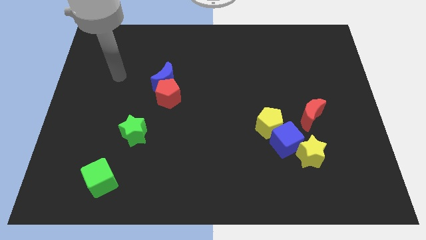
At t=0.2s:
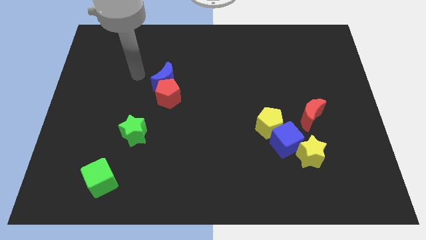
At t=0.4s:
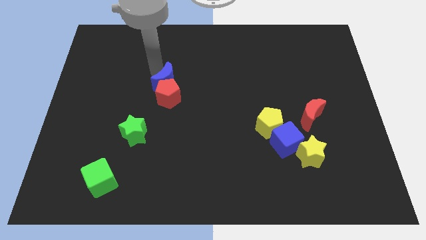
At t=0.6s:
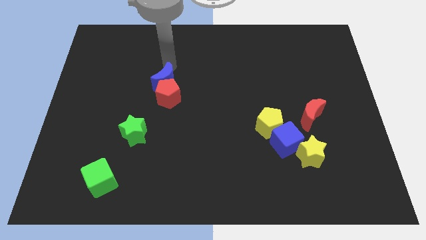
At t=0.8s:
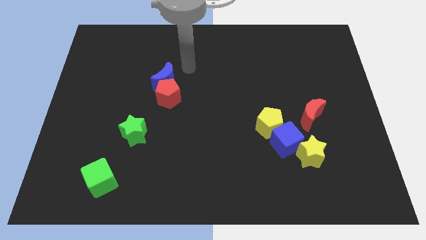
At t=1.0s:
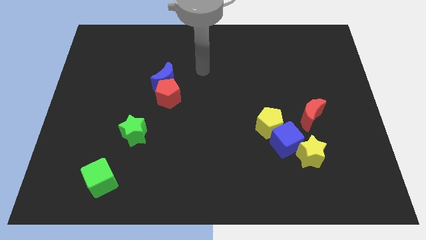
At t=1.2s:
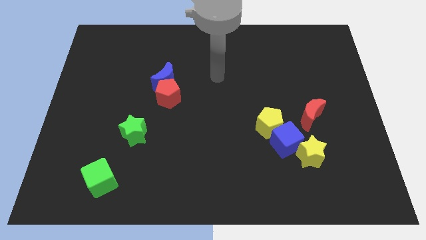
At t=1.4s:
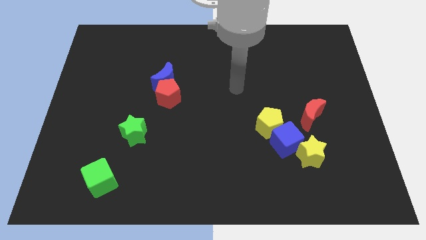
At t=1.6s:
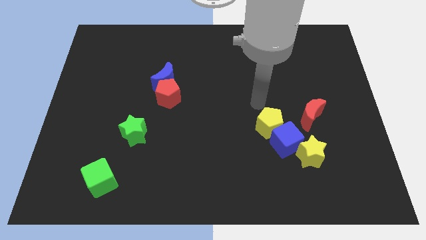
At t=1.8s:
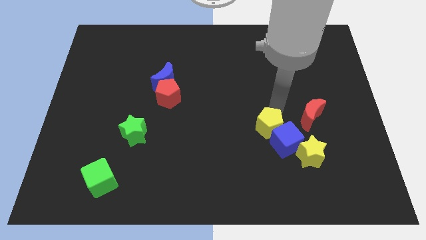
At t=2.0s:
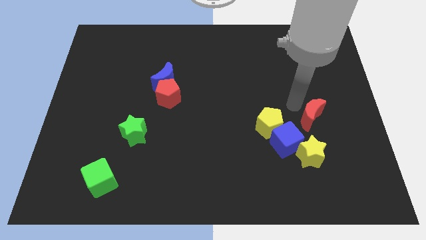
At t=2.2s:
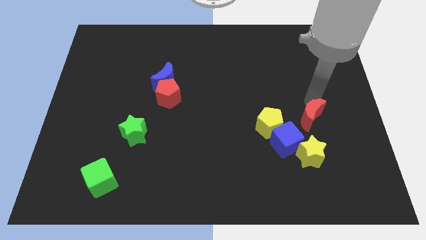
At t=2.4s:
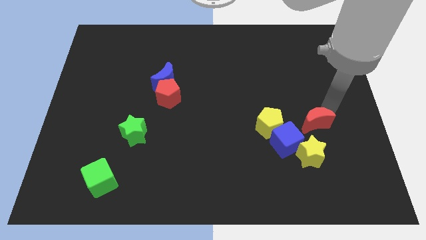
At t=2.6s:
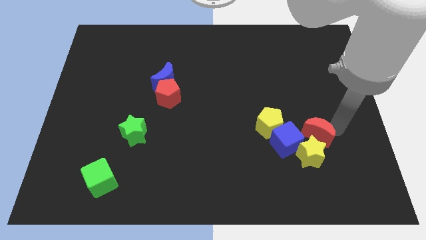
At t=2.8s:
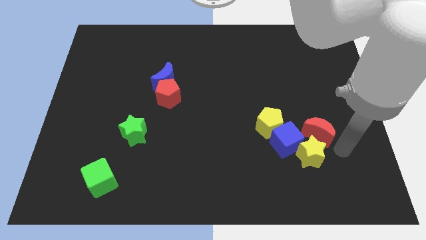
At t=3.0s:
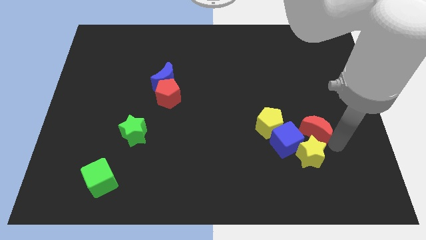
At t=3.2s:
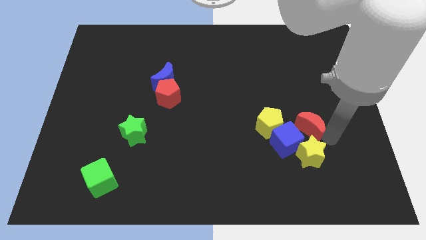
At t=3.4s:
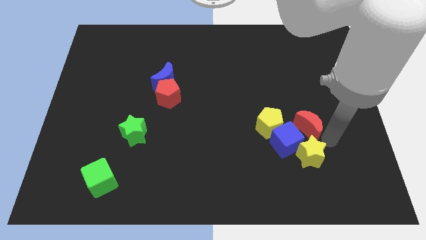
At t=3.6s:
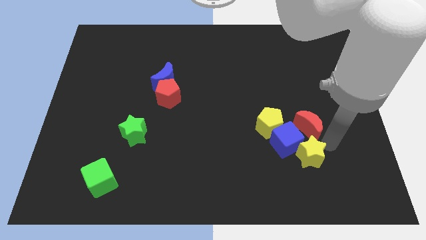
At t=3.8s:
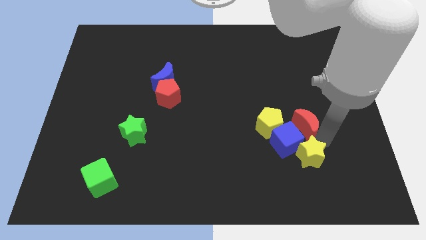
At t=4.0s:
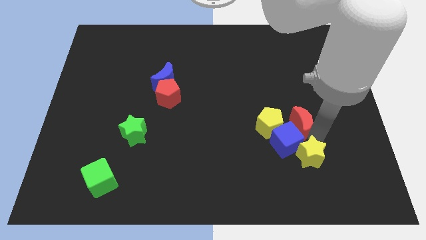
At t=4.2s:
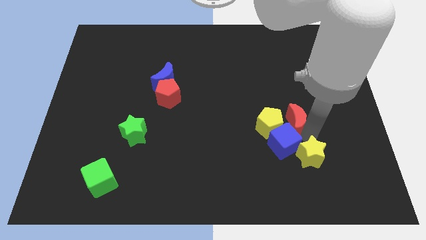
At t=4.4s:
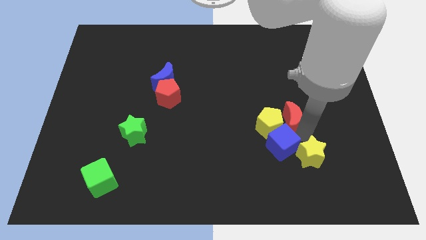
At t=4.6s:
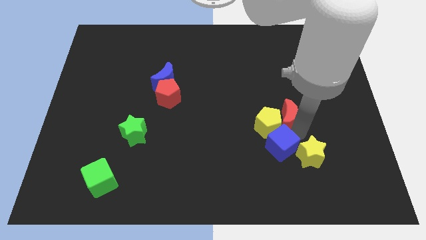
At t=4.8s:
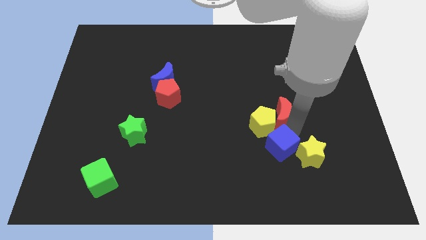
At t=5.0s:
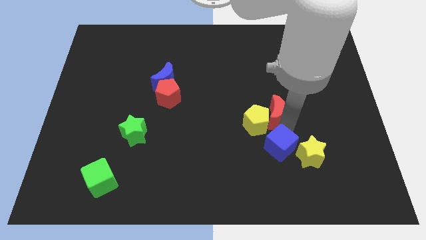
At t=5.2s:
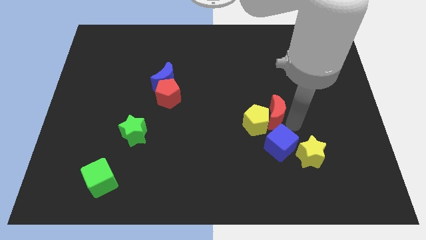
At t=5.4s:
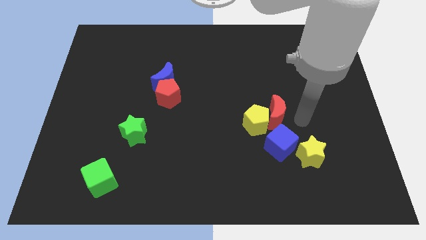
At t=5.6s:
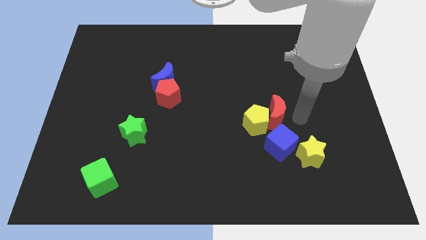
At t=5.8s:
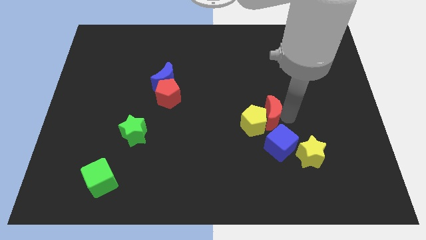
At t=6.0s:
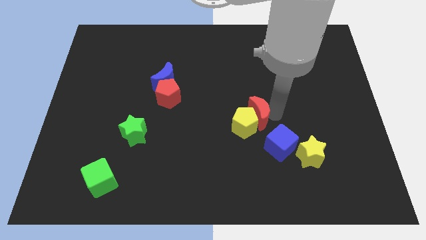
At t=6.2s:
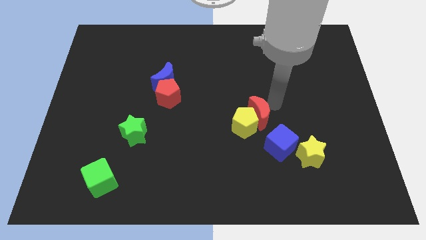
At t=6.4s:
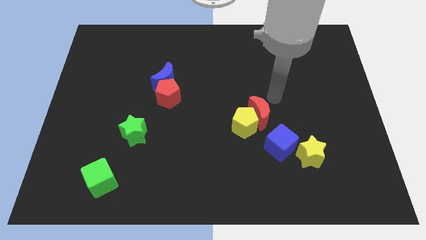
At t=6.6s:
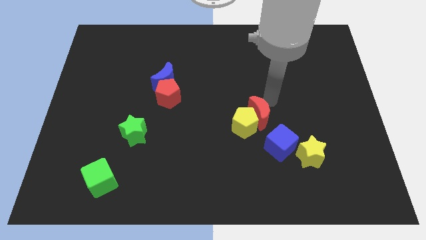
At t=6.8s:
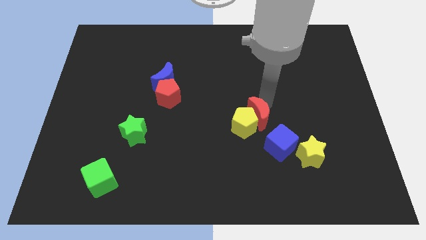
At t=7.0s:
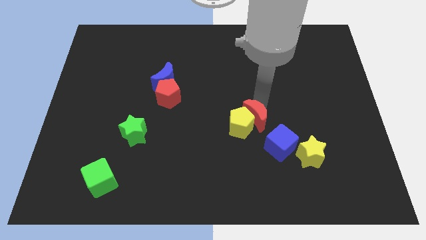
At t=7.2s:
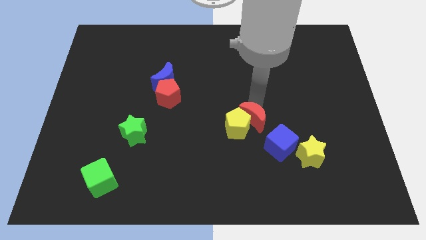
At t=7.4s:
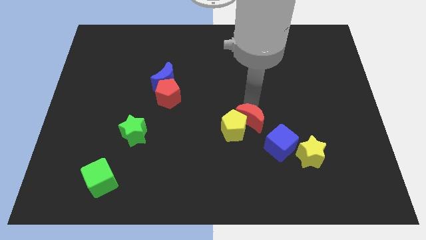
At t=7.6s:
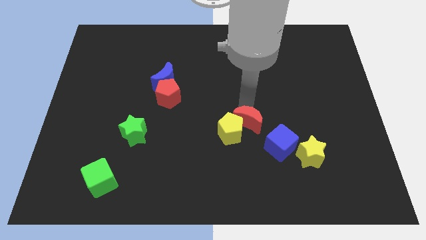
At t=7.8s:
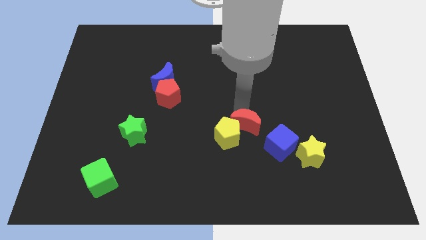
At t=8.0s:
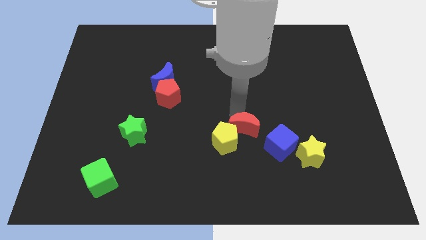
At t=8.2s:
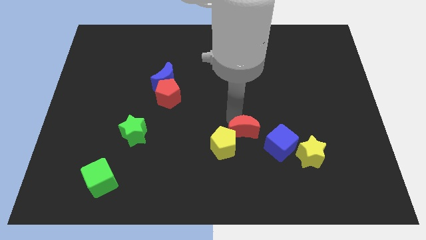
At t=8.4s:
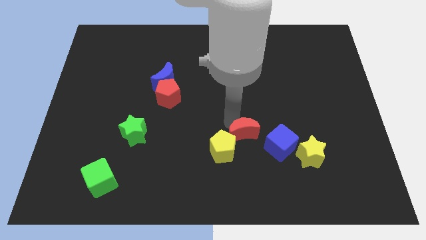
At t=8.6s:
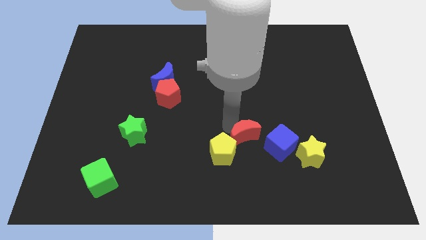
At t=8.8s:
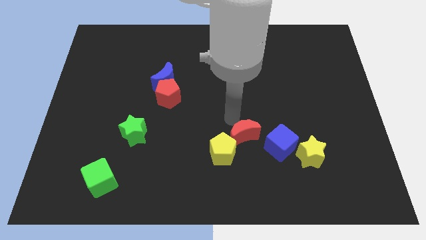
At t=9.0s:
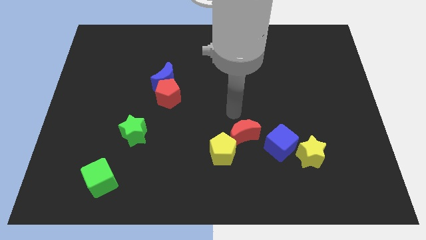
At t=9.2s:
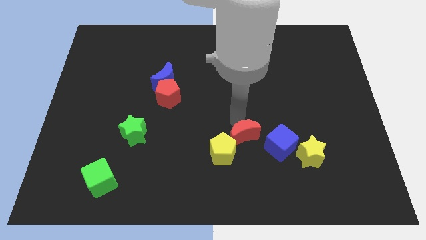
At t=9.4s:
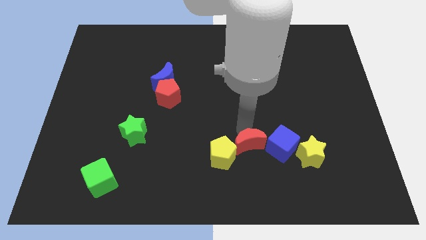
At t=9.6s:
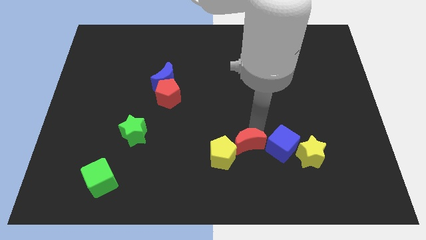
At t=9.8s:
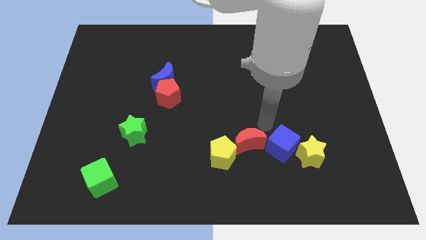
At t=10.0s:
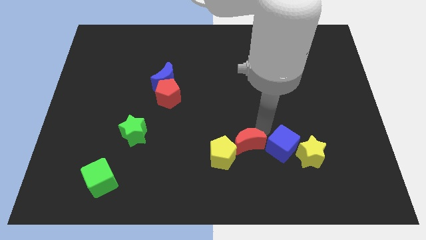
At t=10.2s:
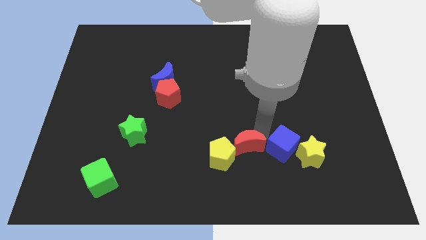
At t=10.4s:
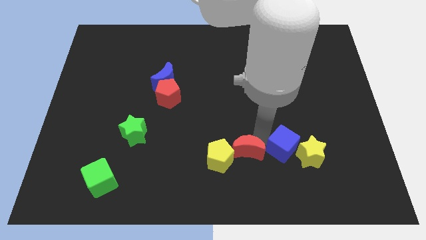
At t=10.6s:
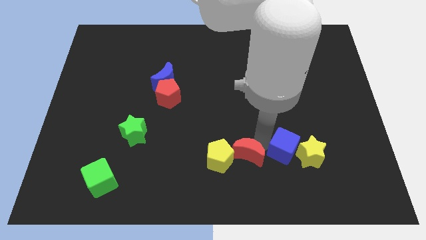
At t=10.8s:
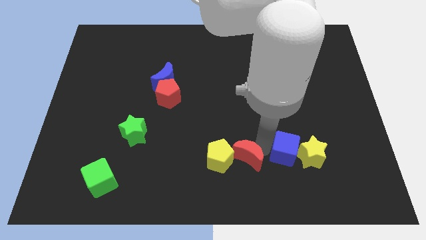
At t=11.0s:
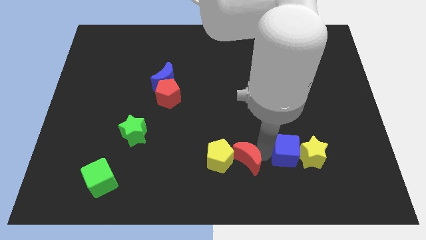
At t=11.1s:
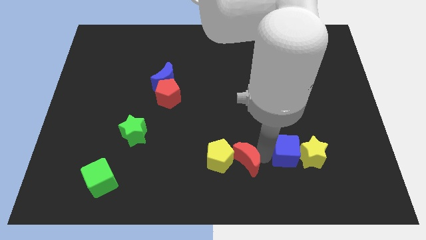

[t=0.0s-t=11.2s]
slide the red moon to the bottom

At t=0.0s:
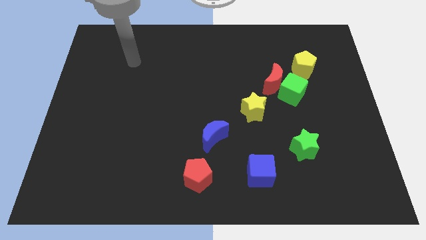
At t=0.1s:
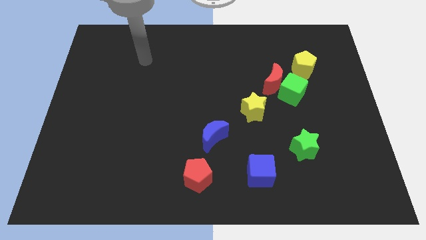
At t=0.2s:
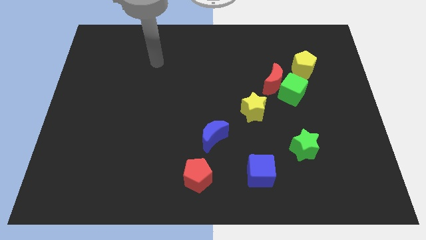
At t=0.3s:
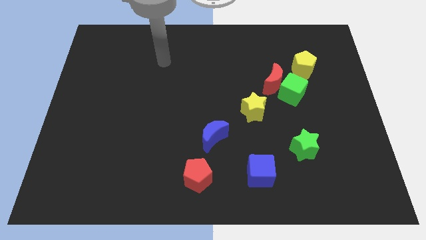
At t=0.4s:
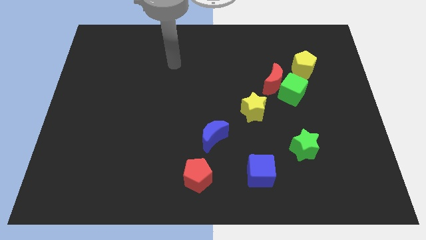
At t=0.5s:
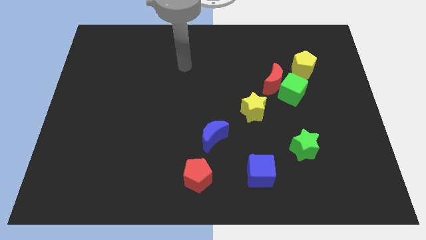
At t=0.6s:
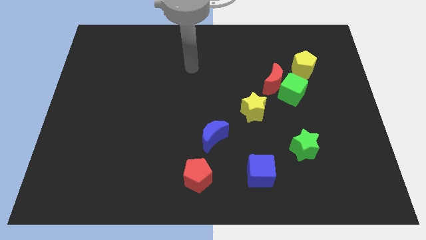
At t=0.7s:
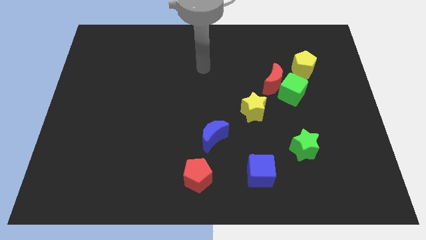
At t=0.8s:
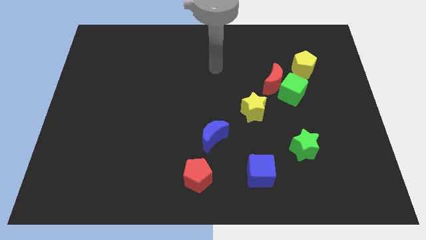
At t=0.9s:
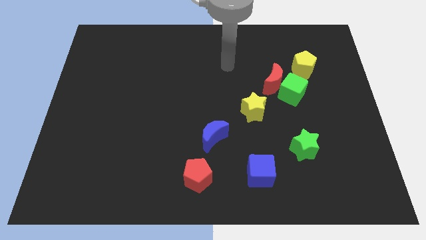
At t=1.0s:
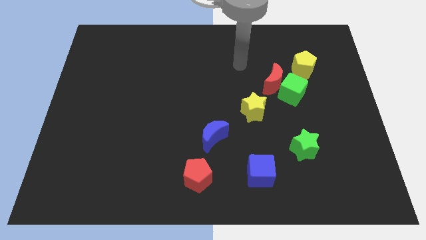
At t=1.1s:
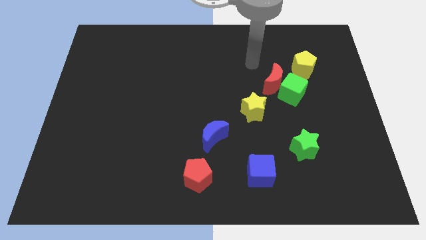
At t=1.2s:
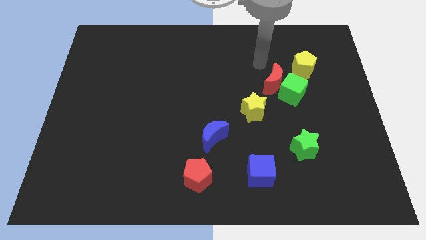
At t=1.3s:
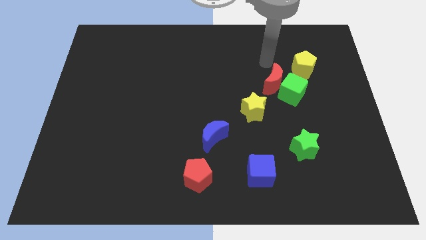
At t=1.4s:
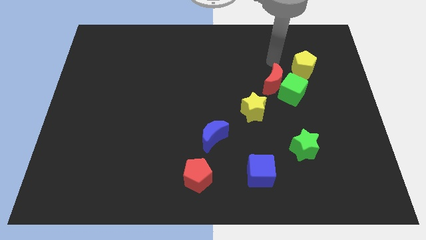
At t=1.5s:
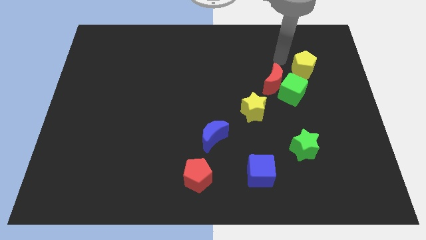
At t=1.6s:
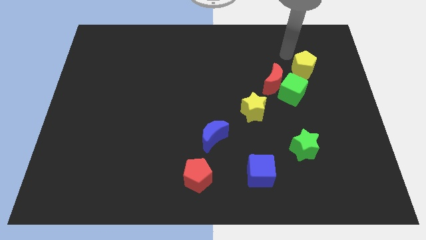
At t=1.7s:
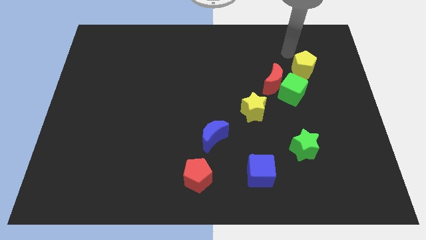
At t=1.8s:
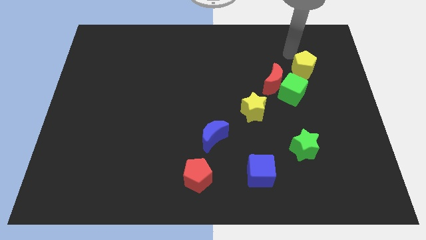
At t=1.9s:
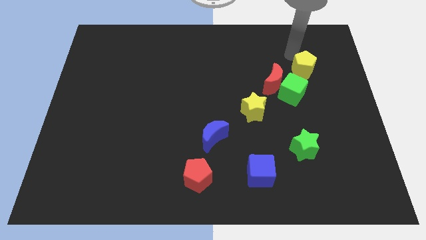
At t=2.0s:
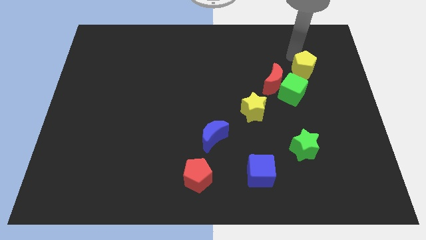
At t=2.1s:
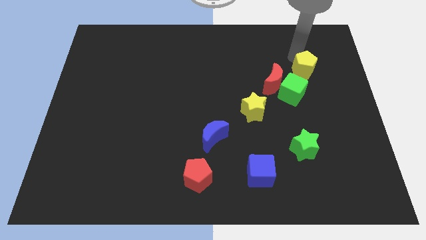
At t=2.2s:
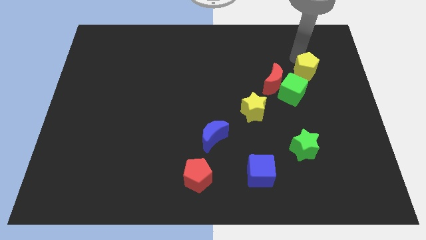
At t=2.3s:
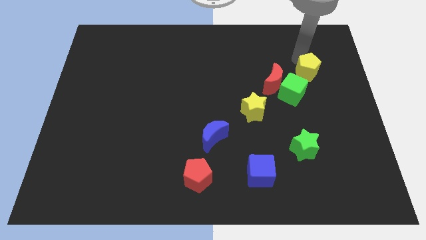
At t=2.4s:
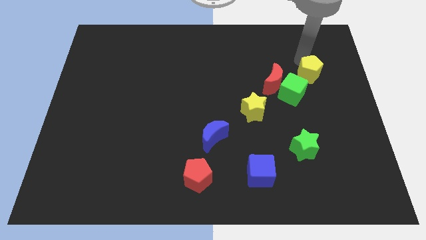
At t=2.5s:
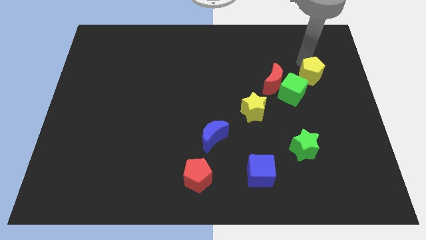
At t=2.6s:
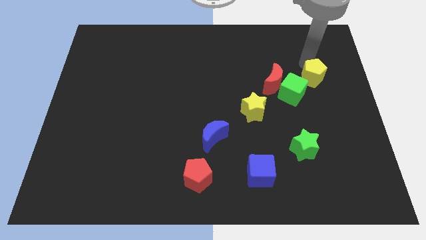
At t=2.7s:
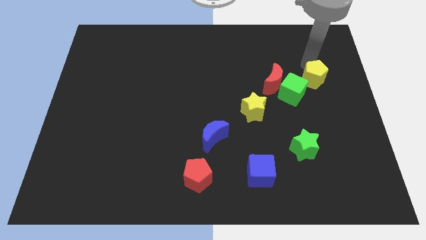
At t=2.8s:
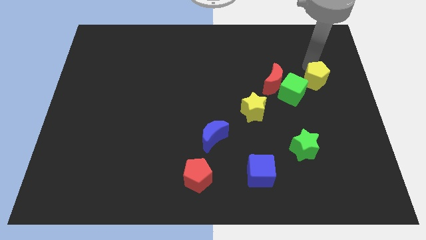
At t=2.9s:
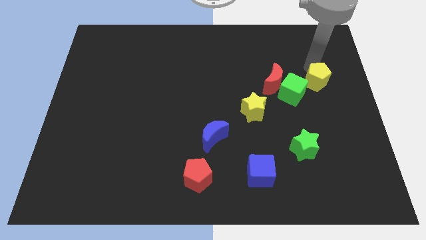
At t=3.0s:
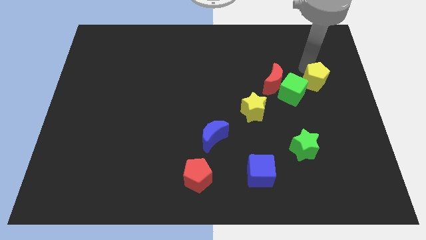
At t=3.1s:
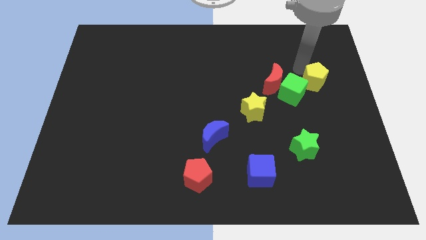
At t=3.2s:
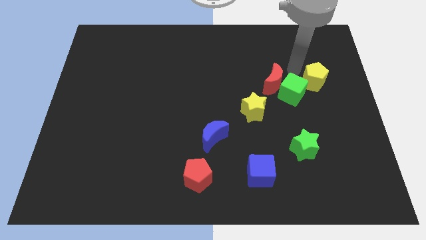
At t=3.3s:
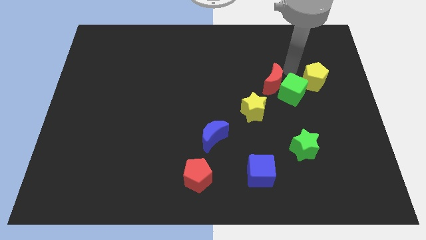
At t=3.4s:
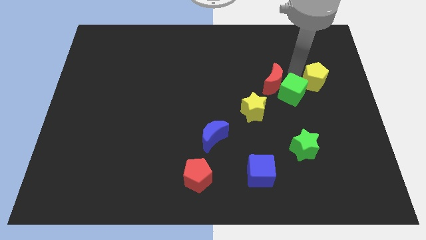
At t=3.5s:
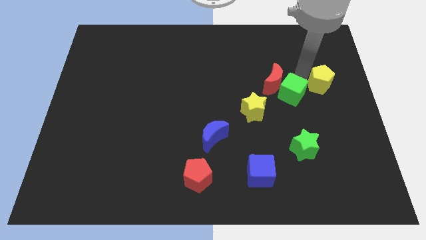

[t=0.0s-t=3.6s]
put the yellow pentagon to the right side of the board
